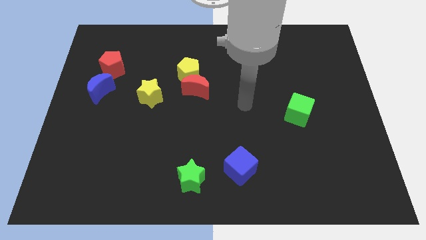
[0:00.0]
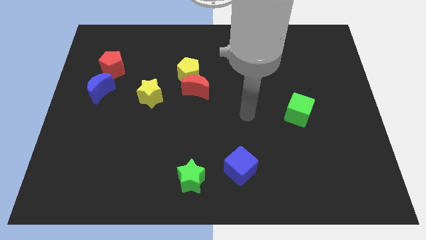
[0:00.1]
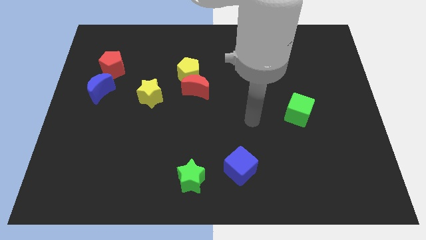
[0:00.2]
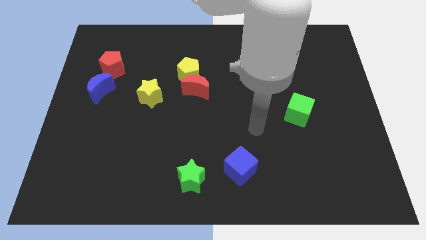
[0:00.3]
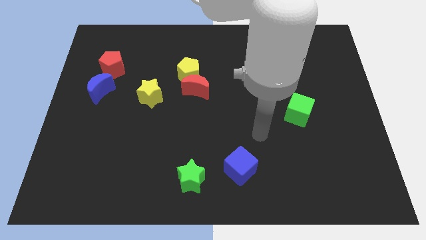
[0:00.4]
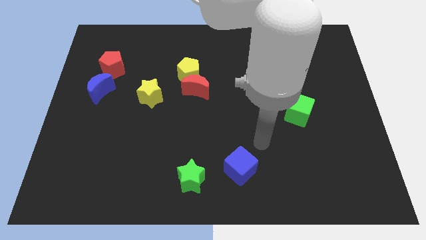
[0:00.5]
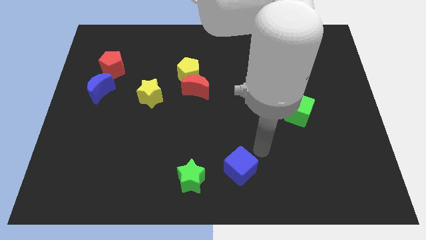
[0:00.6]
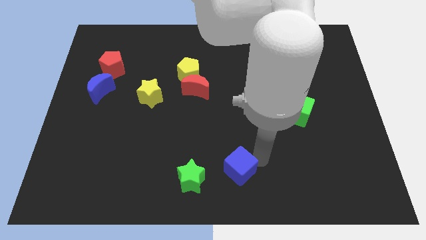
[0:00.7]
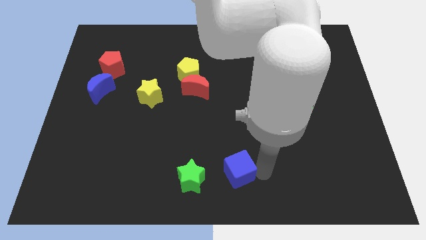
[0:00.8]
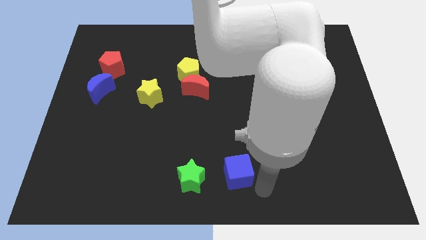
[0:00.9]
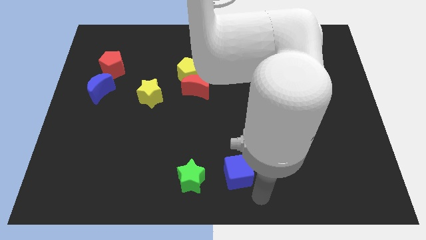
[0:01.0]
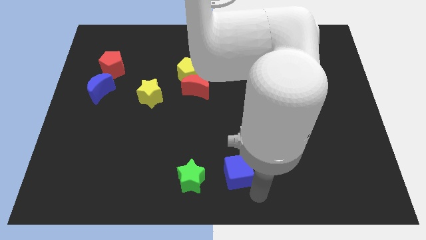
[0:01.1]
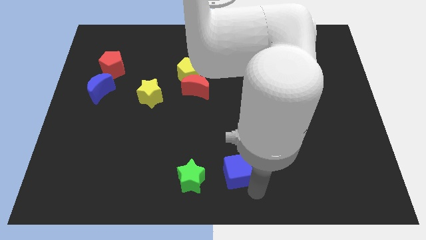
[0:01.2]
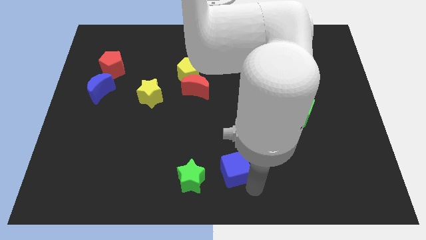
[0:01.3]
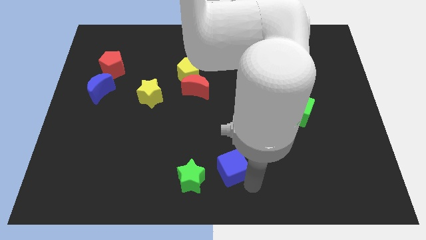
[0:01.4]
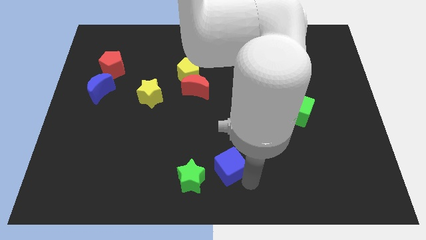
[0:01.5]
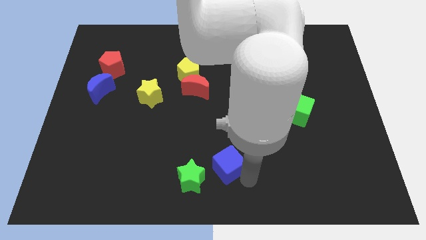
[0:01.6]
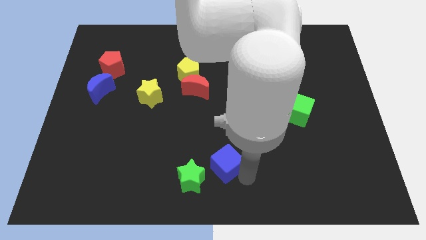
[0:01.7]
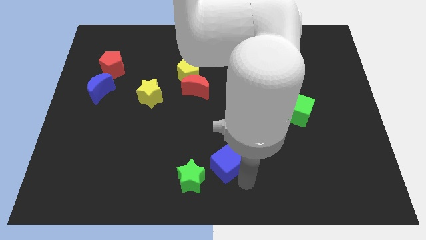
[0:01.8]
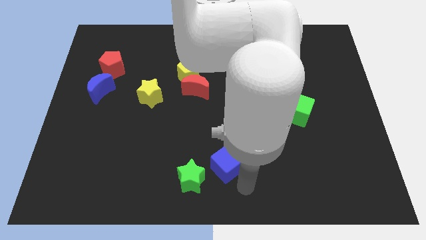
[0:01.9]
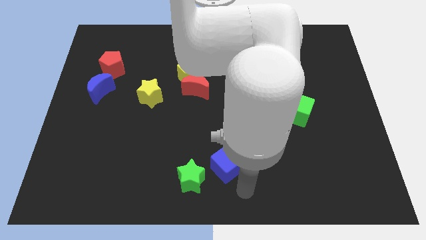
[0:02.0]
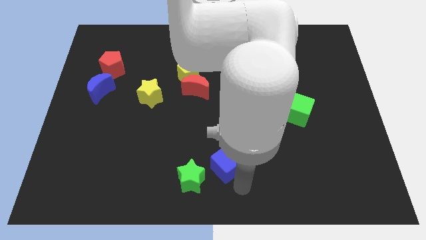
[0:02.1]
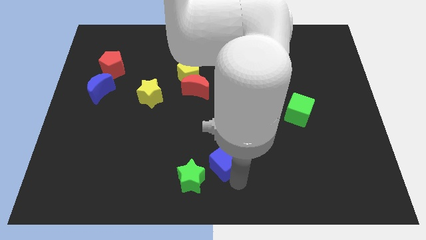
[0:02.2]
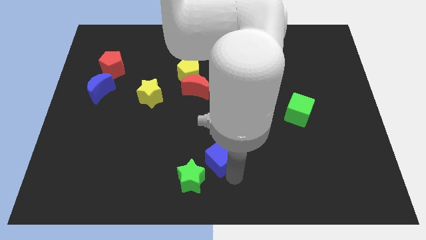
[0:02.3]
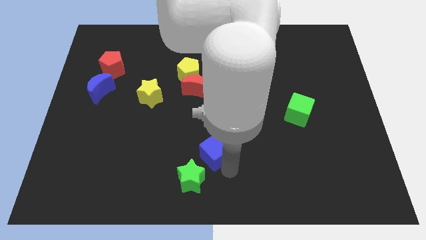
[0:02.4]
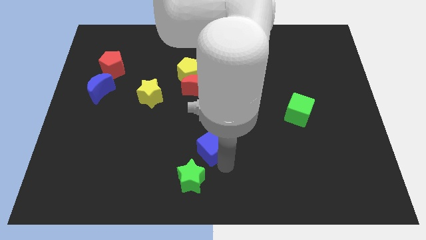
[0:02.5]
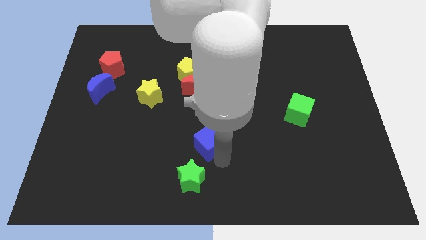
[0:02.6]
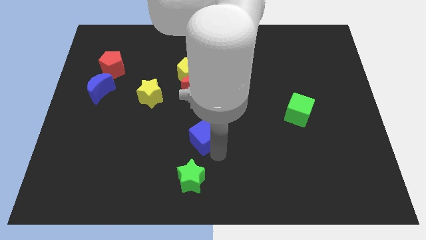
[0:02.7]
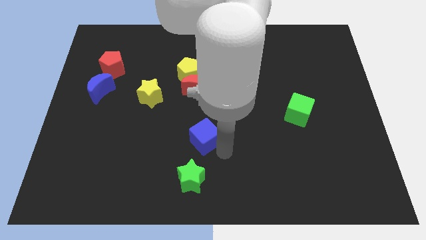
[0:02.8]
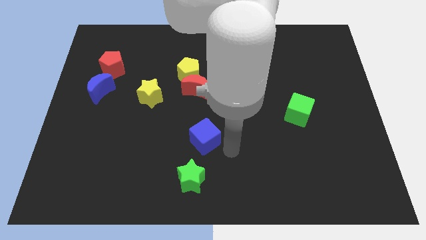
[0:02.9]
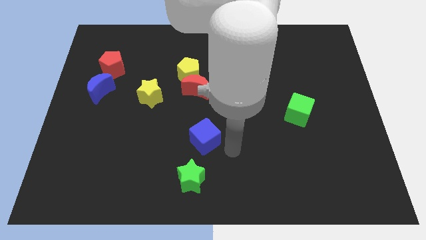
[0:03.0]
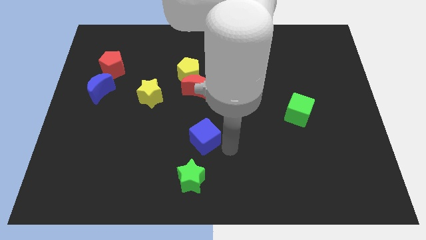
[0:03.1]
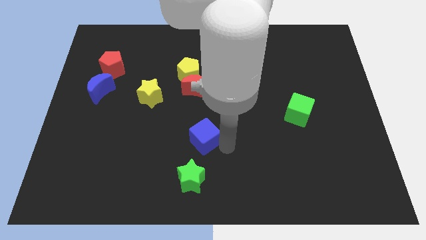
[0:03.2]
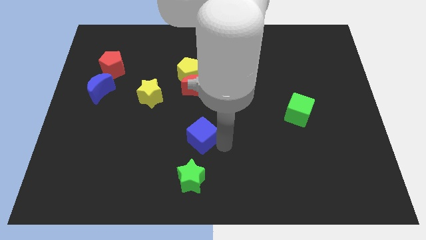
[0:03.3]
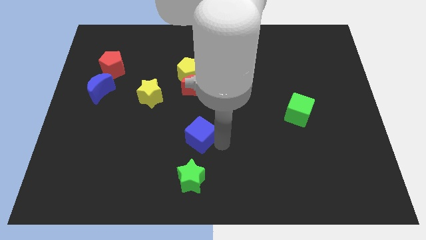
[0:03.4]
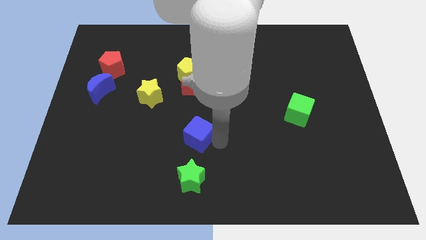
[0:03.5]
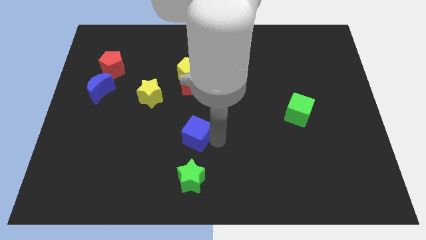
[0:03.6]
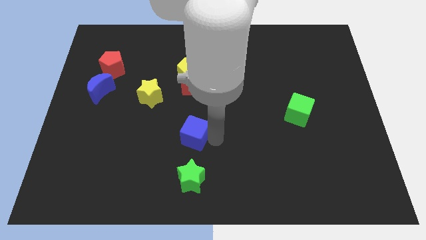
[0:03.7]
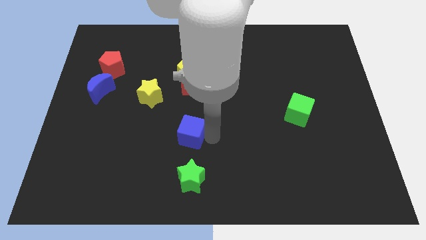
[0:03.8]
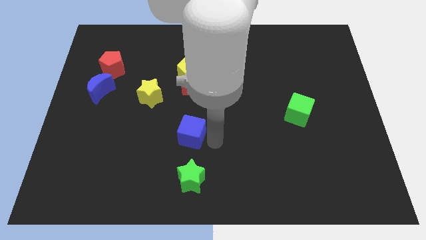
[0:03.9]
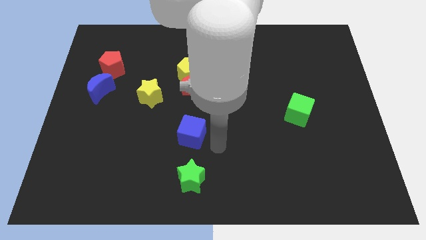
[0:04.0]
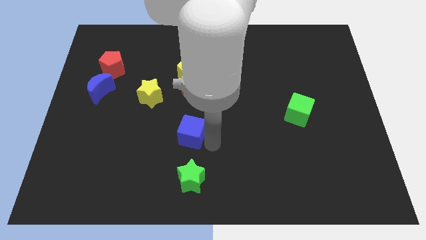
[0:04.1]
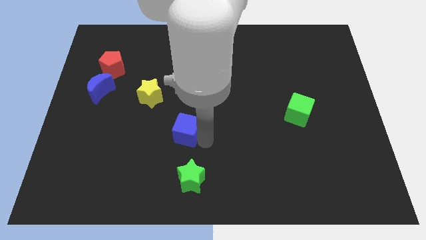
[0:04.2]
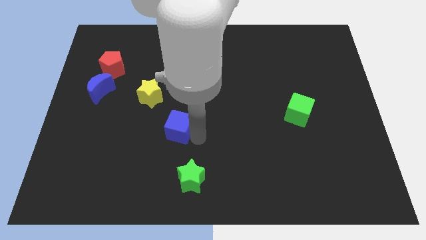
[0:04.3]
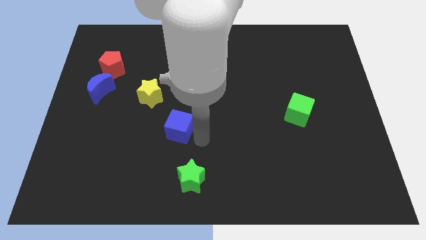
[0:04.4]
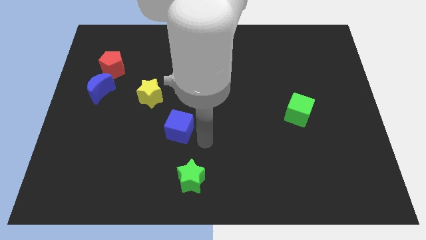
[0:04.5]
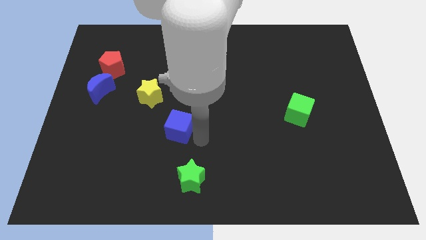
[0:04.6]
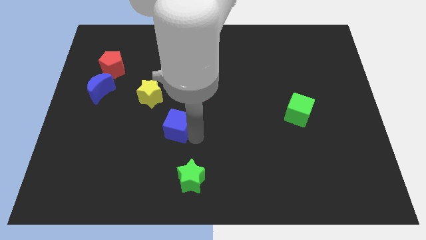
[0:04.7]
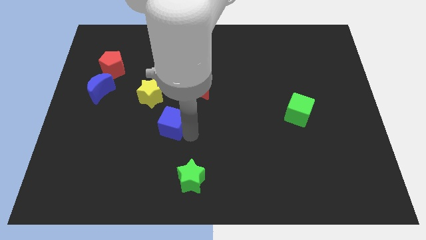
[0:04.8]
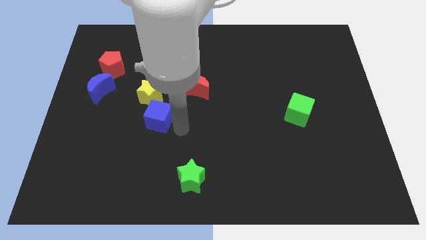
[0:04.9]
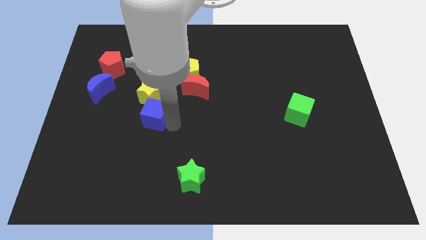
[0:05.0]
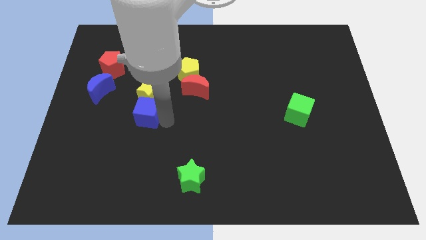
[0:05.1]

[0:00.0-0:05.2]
push the blue cube to the bottom left of the yellow star

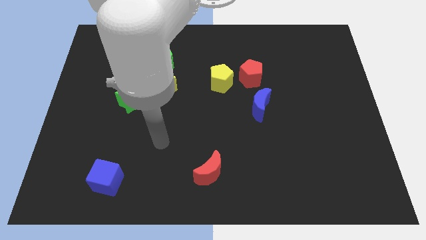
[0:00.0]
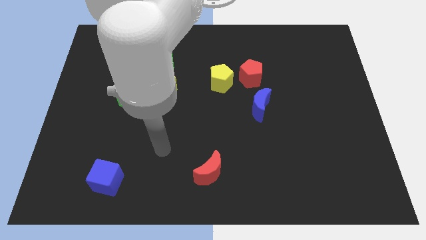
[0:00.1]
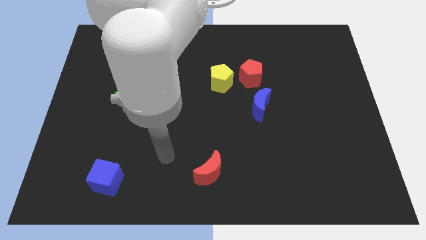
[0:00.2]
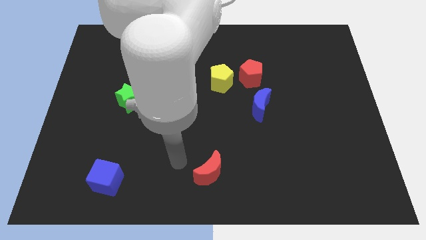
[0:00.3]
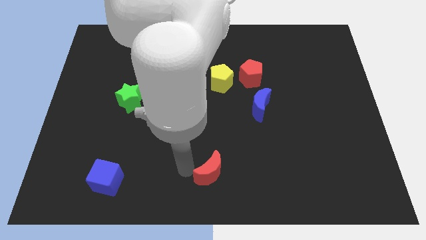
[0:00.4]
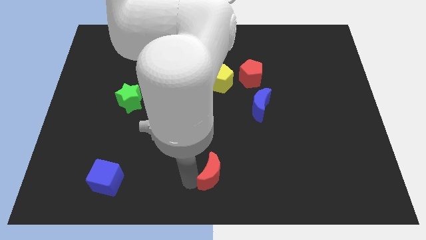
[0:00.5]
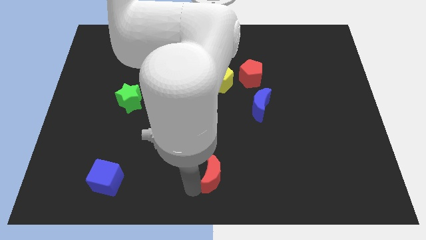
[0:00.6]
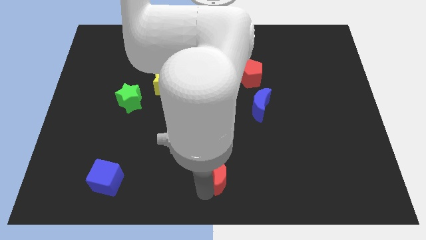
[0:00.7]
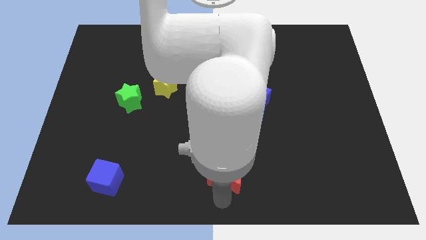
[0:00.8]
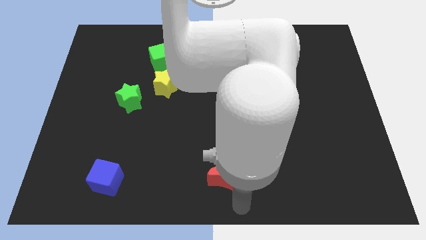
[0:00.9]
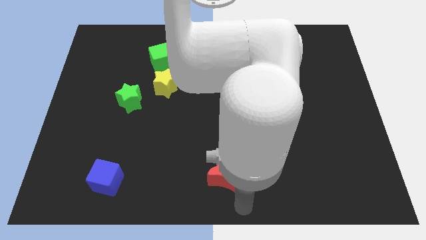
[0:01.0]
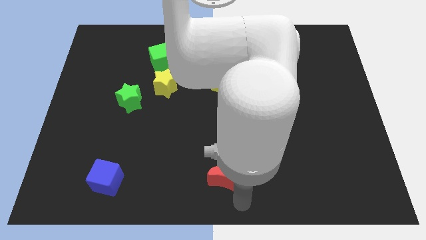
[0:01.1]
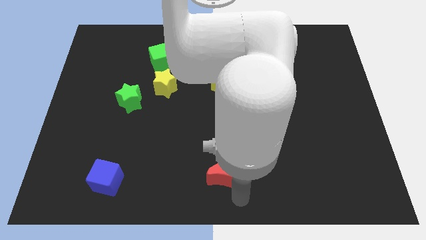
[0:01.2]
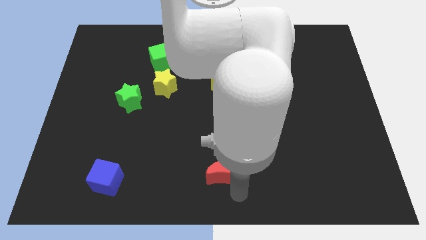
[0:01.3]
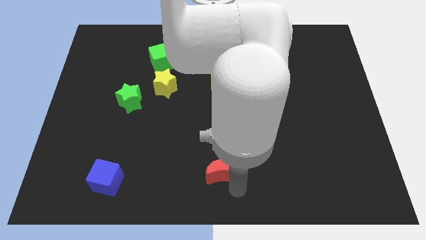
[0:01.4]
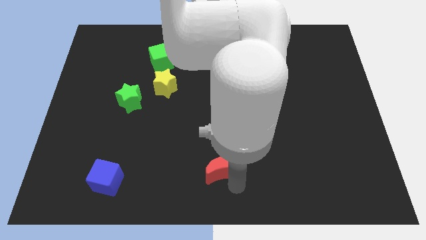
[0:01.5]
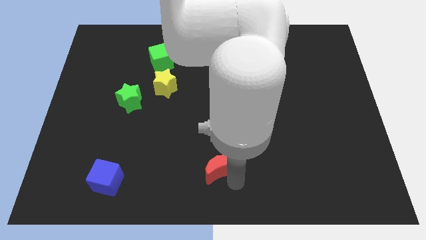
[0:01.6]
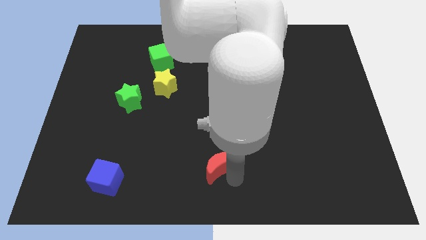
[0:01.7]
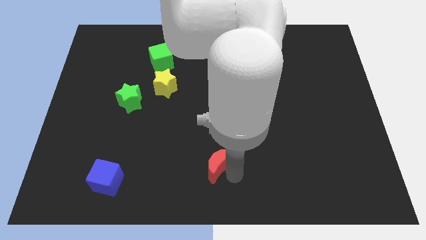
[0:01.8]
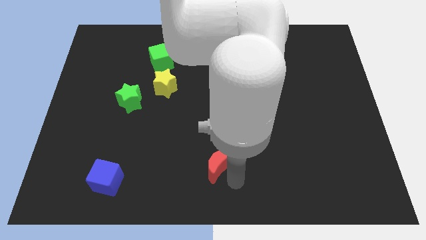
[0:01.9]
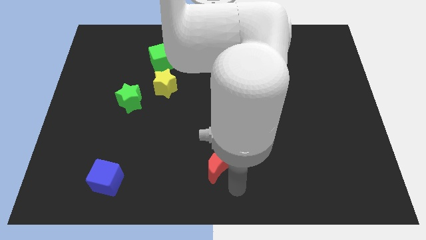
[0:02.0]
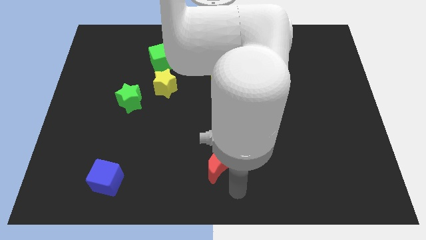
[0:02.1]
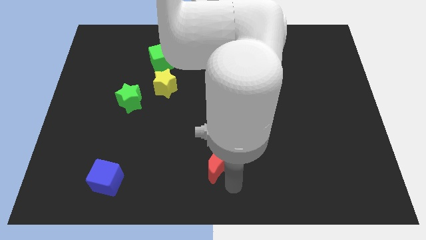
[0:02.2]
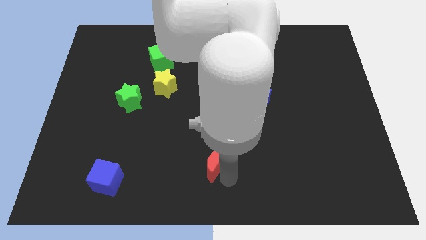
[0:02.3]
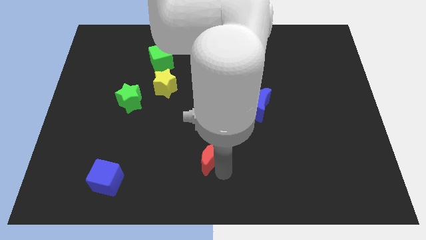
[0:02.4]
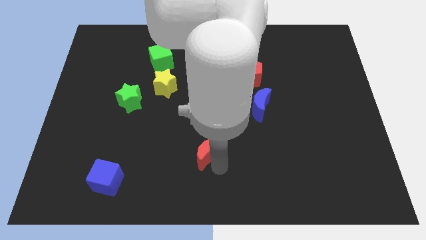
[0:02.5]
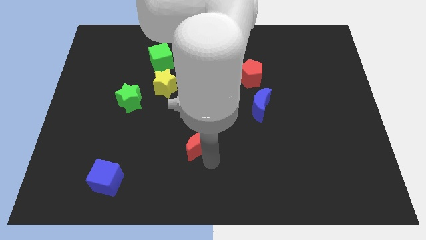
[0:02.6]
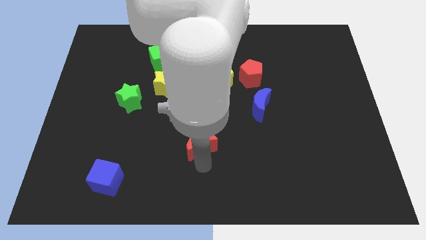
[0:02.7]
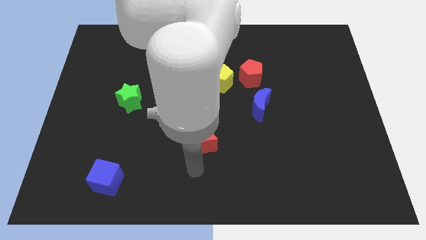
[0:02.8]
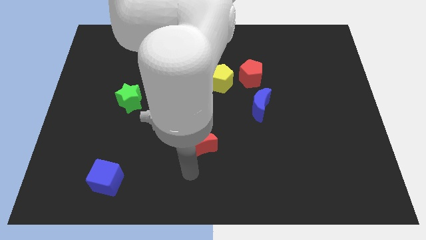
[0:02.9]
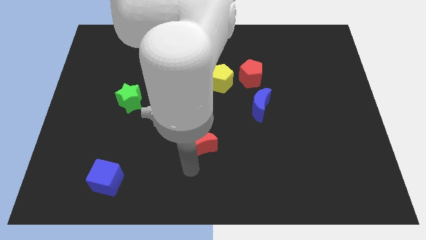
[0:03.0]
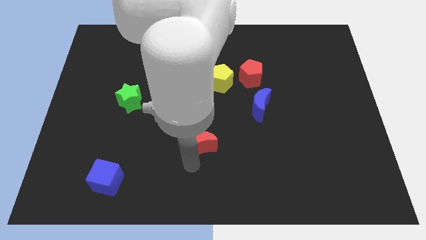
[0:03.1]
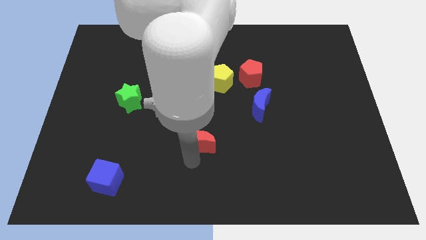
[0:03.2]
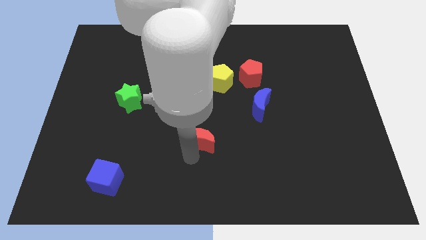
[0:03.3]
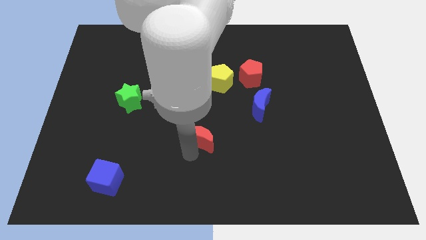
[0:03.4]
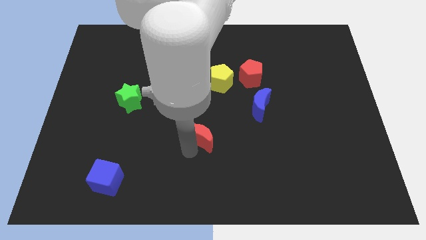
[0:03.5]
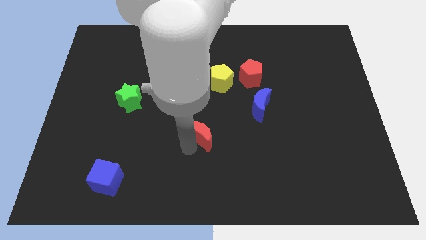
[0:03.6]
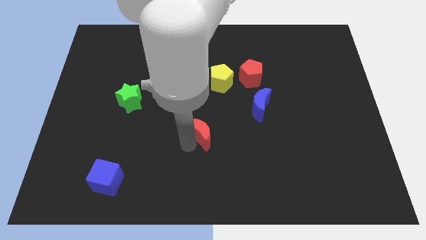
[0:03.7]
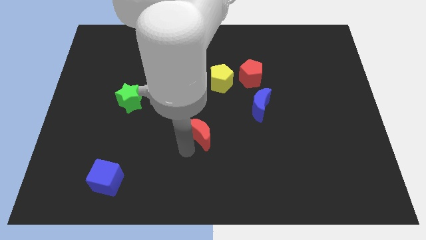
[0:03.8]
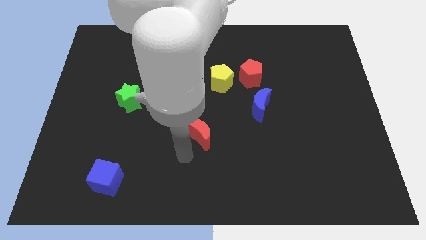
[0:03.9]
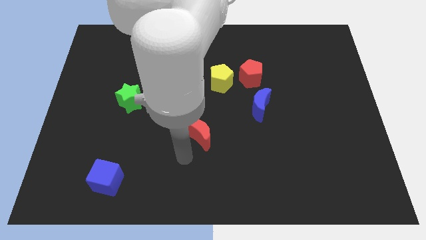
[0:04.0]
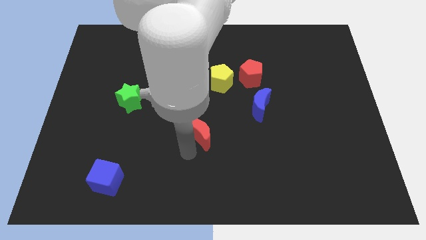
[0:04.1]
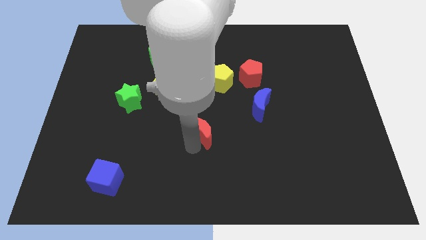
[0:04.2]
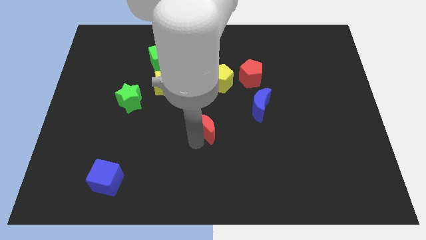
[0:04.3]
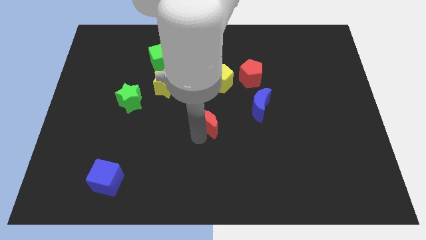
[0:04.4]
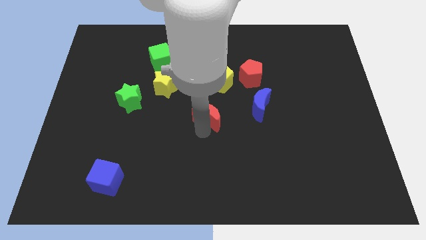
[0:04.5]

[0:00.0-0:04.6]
put the red moon to the left of the blue moon
